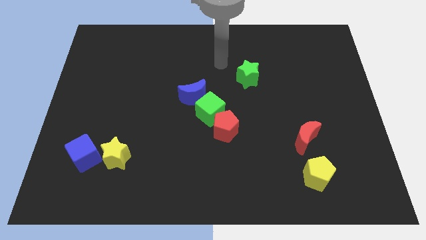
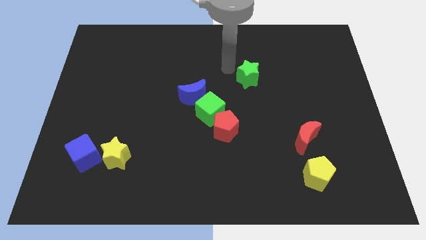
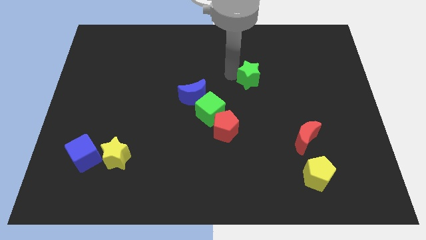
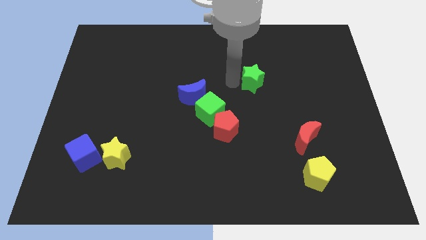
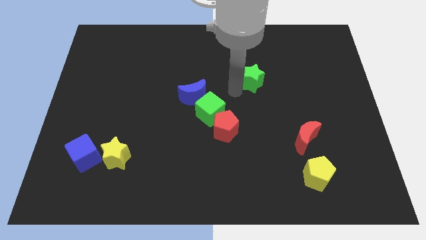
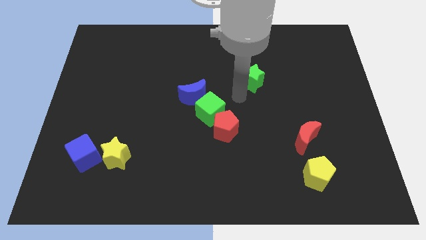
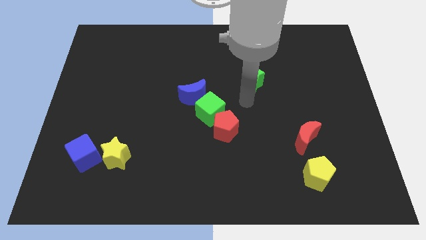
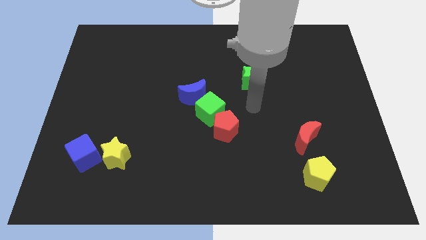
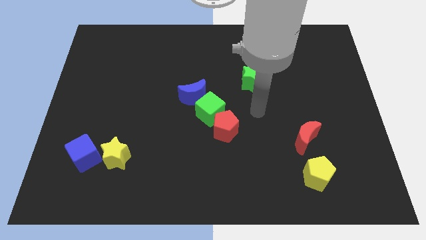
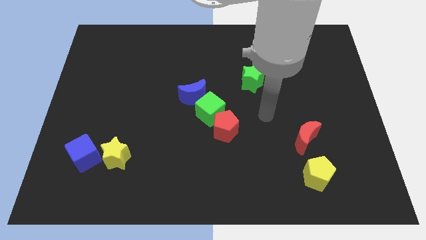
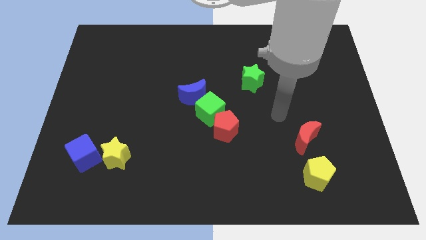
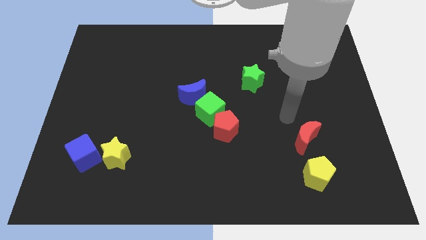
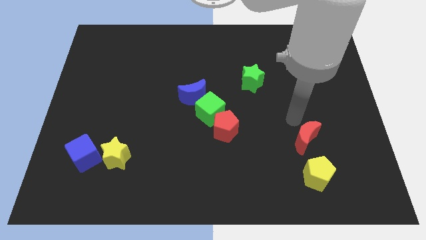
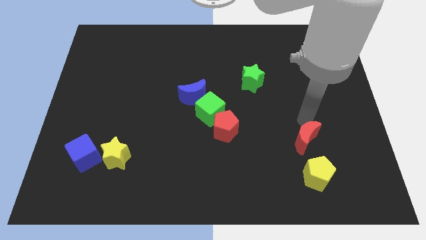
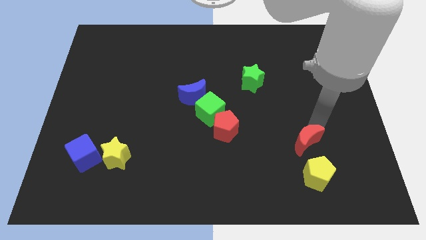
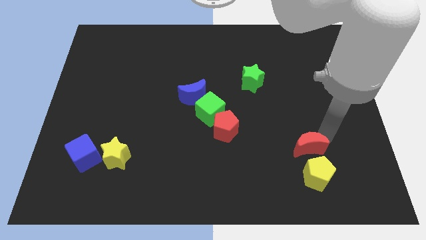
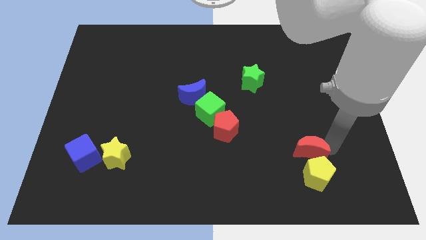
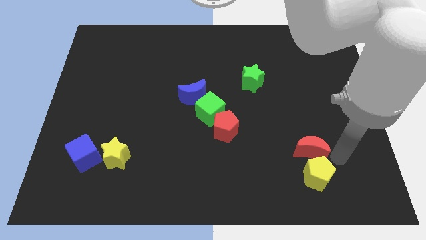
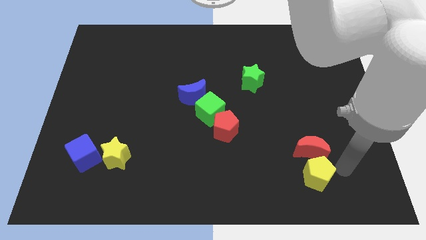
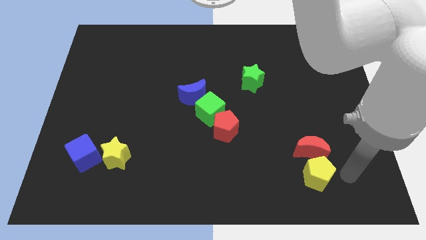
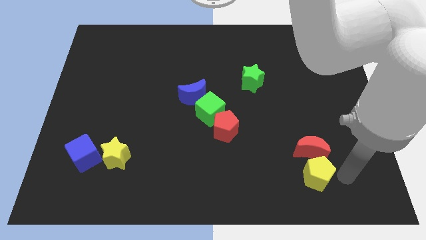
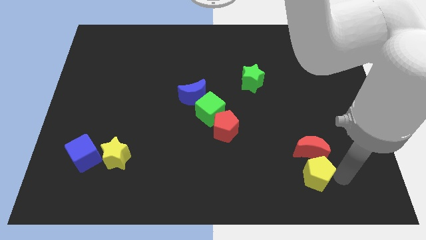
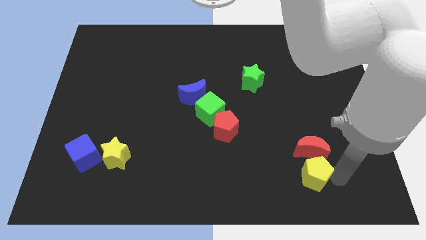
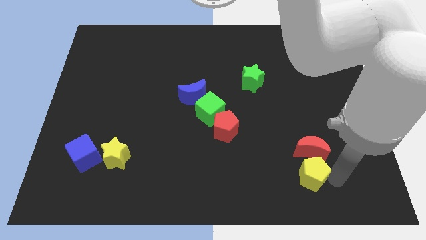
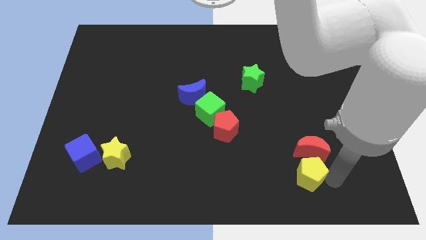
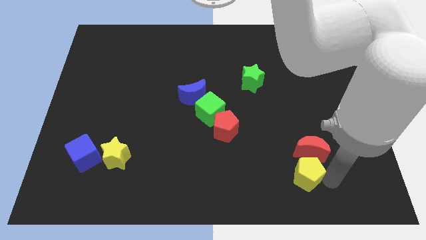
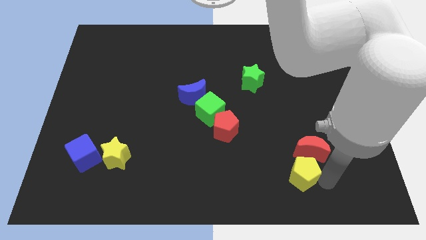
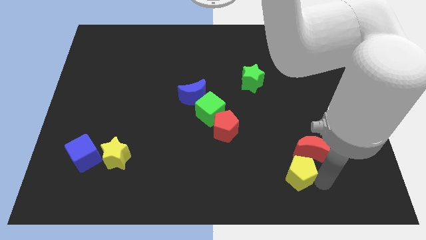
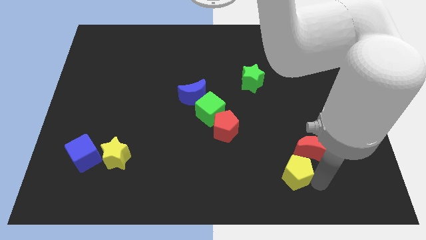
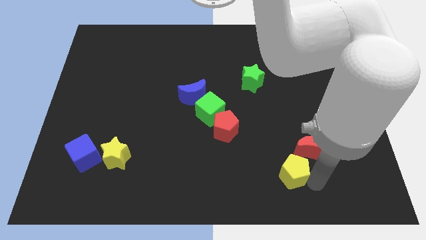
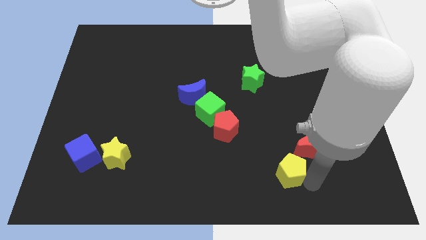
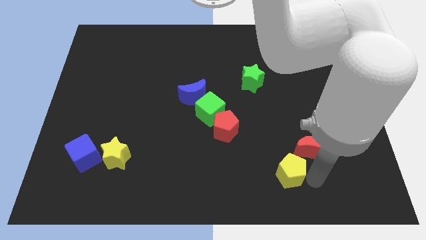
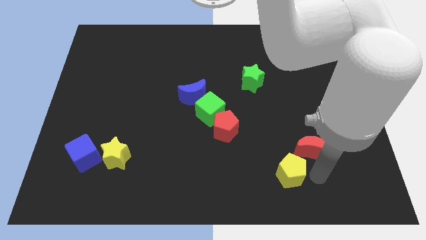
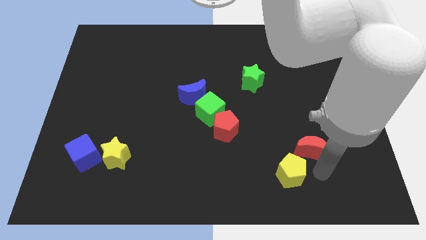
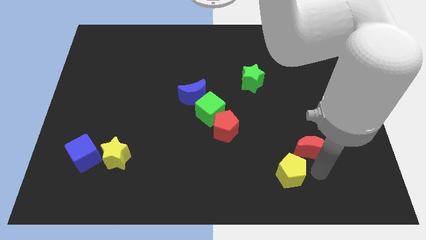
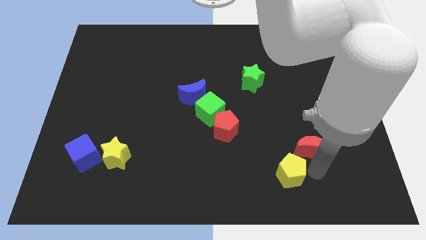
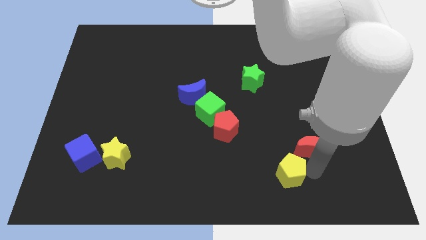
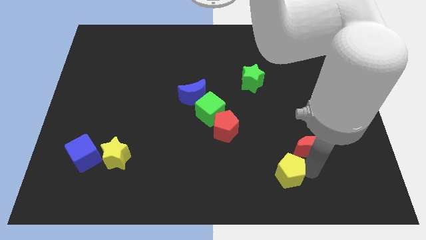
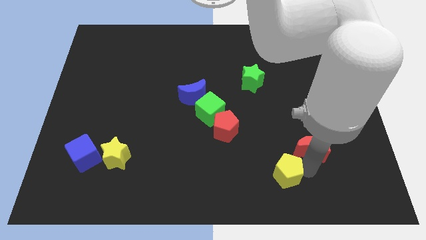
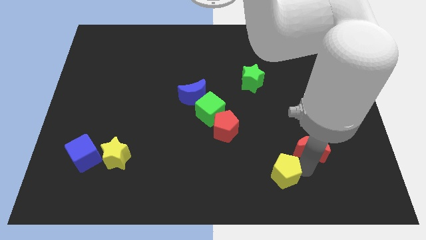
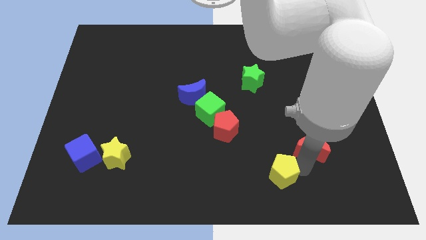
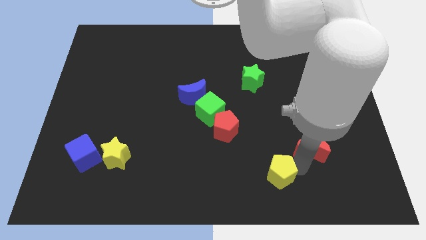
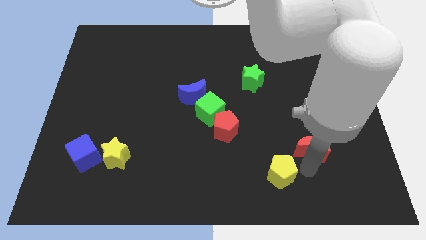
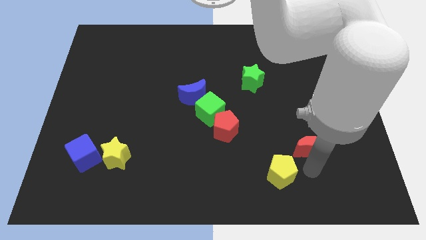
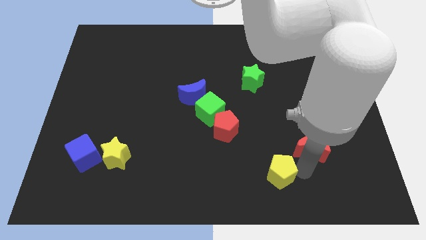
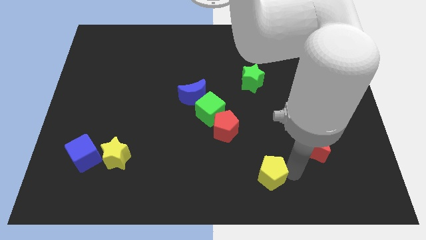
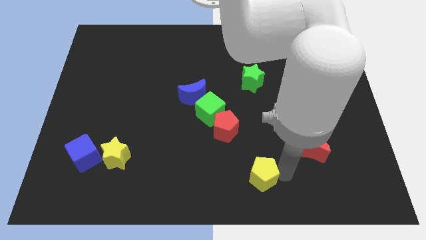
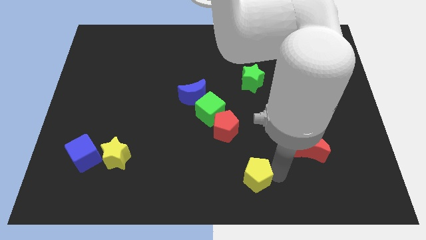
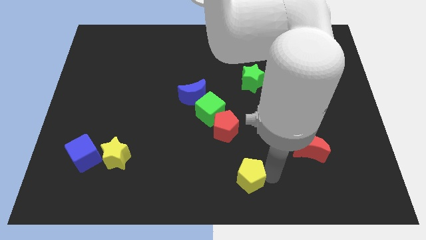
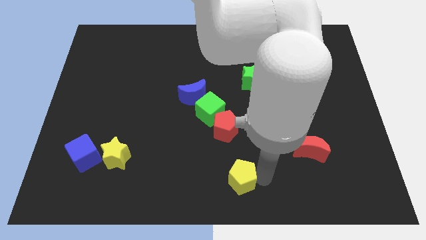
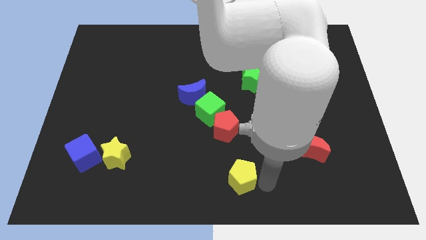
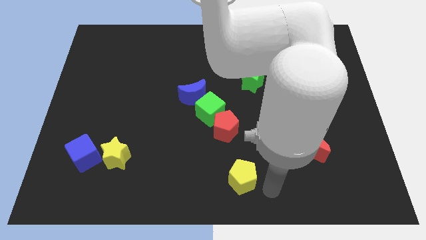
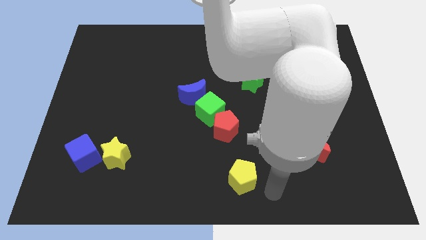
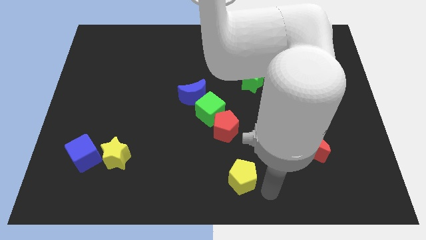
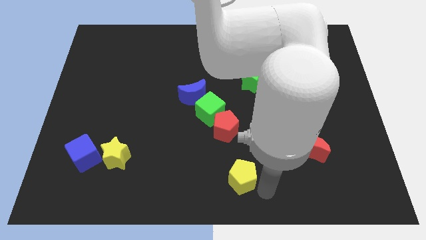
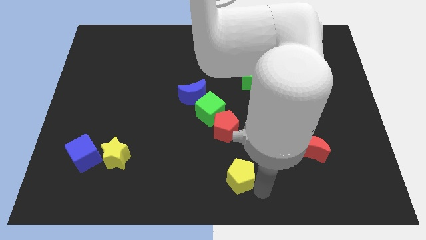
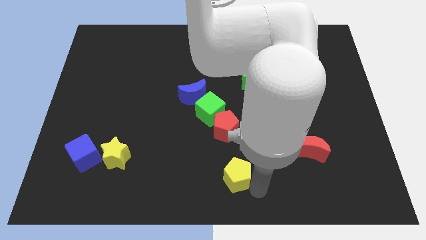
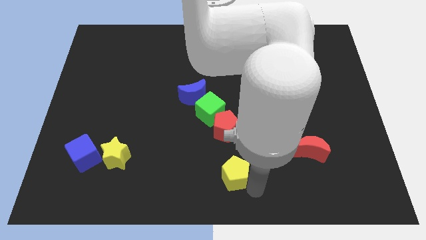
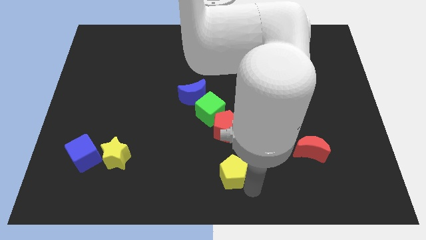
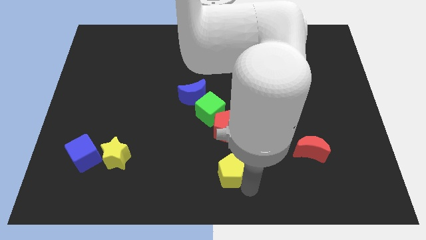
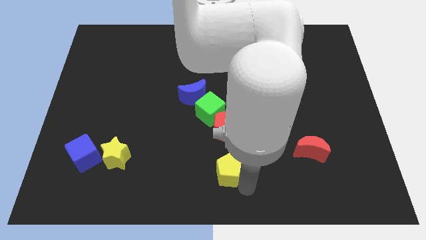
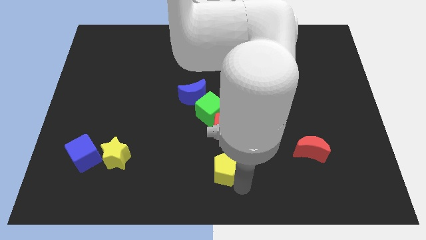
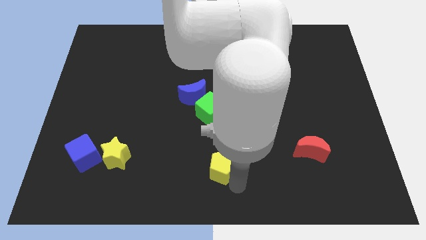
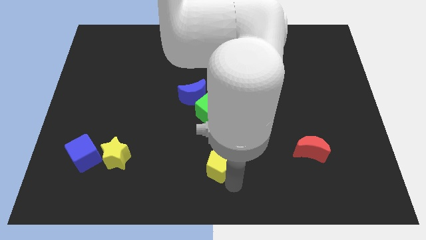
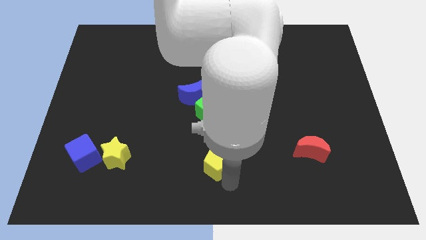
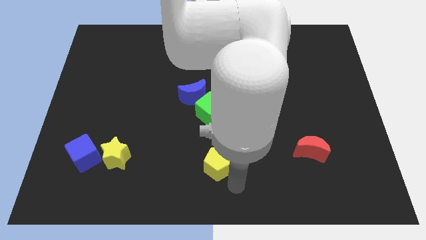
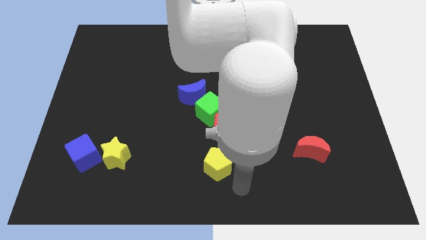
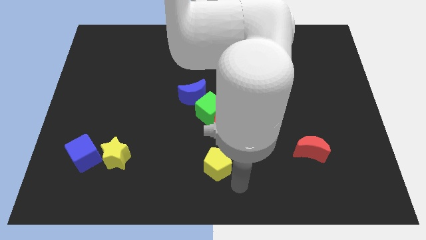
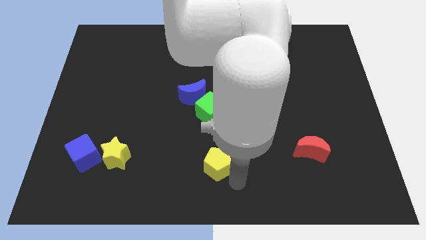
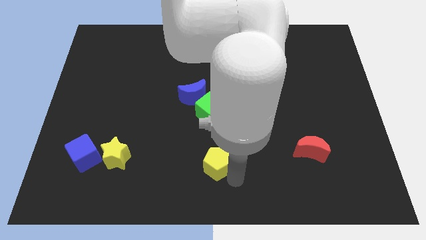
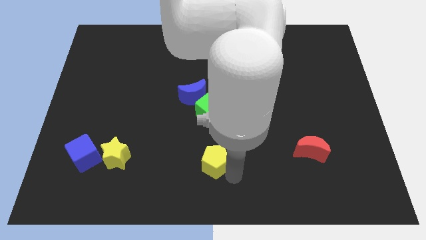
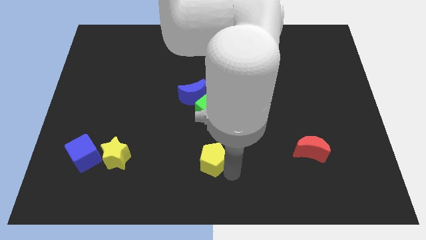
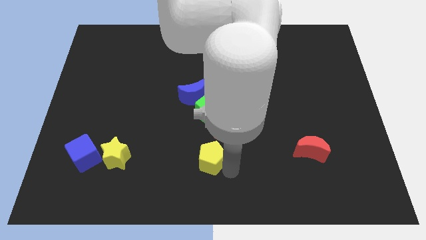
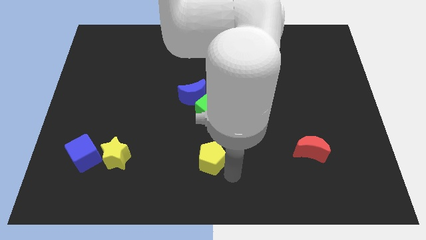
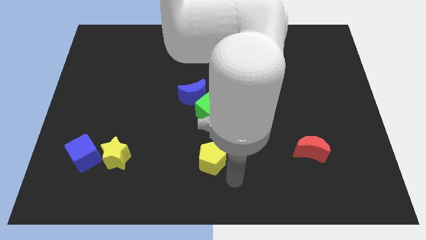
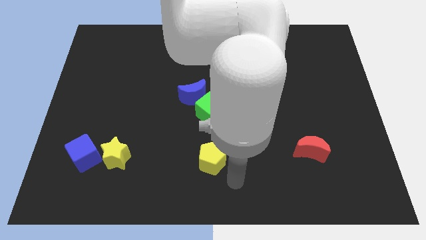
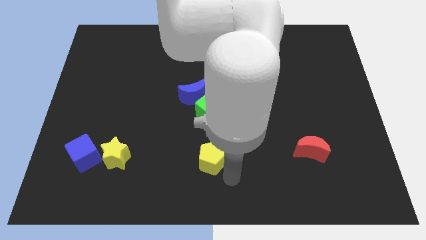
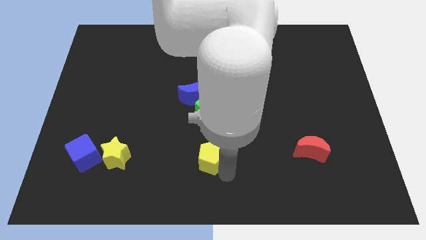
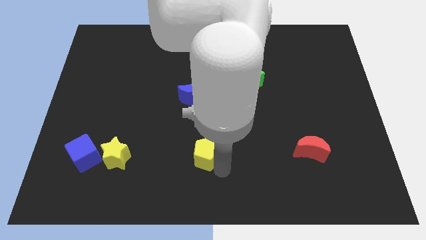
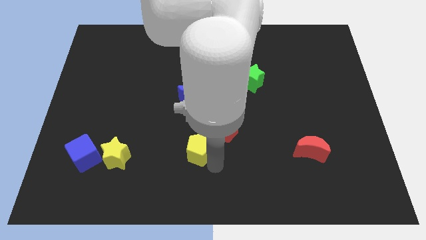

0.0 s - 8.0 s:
slide the yellow pentagon to the bottom side of the blue moon
